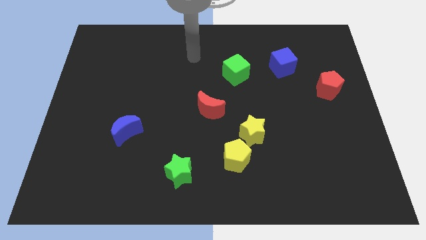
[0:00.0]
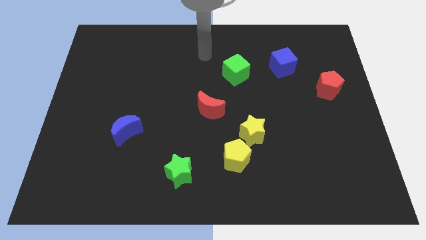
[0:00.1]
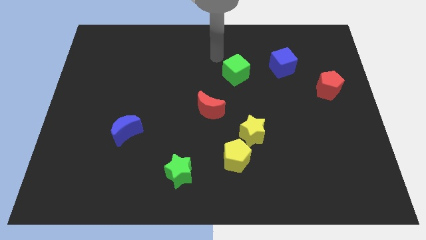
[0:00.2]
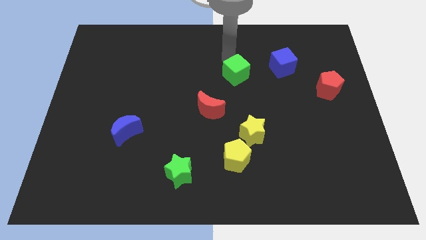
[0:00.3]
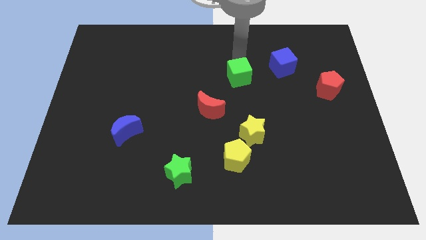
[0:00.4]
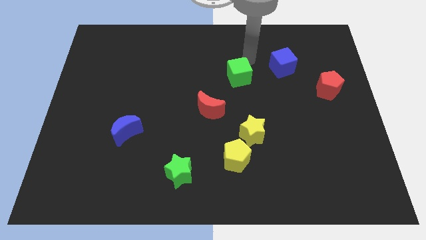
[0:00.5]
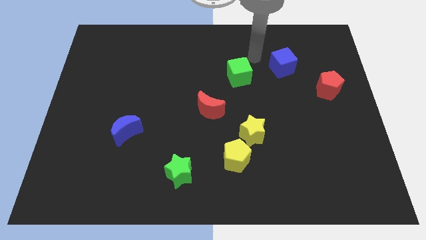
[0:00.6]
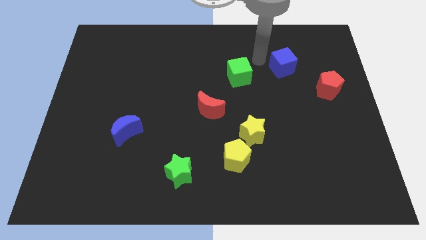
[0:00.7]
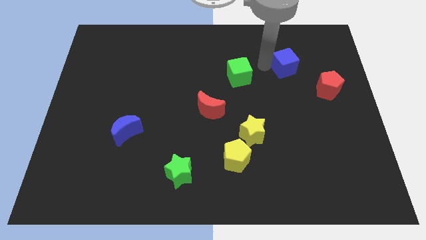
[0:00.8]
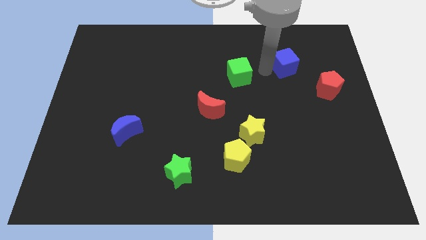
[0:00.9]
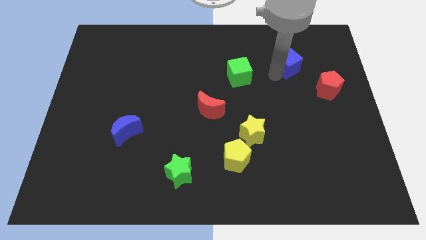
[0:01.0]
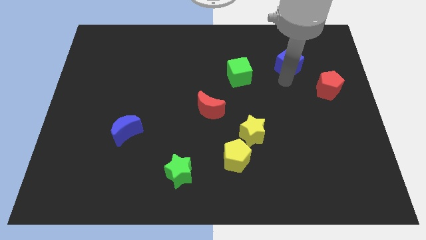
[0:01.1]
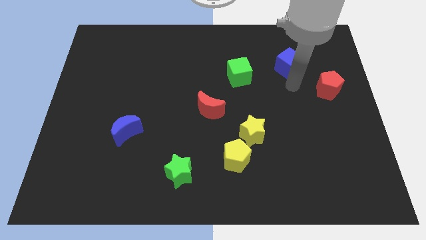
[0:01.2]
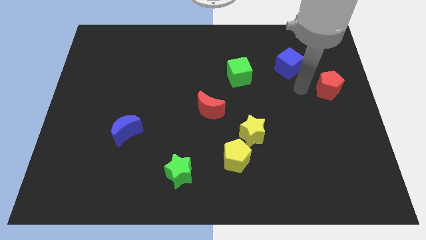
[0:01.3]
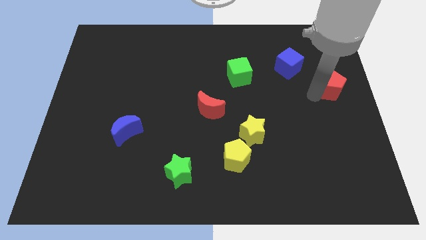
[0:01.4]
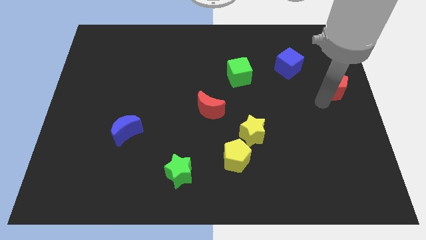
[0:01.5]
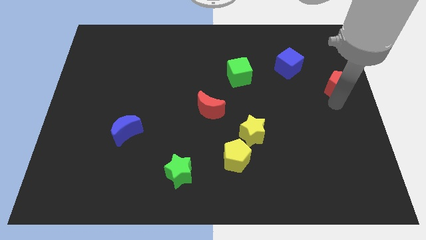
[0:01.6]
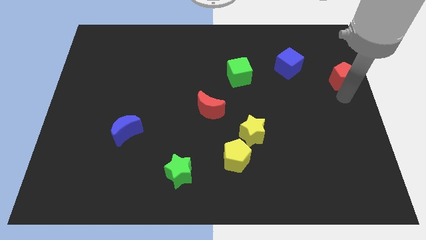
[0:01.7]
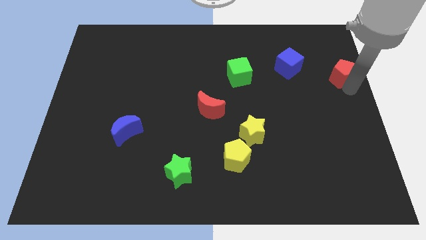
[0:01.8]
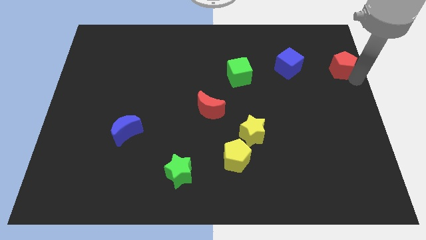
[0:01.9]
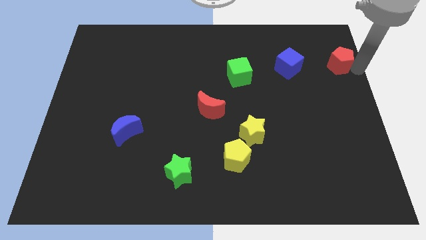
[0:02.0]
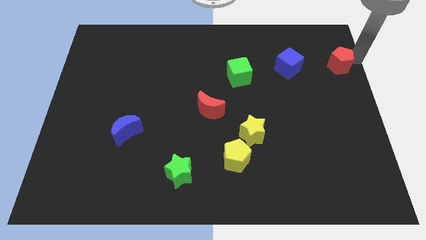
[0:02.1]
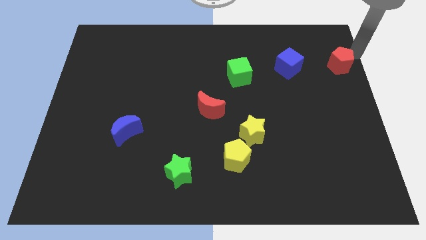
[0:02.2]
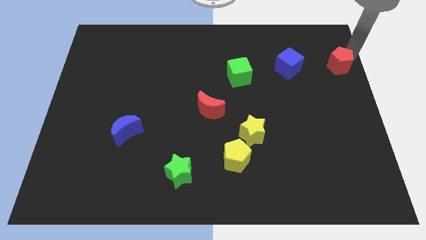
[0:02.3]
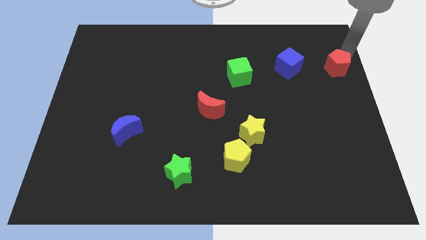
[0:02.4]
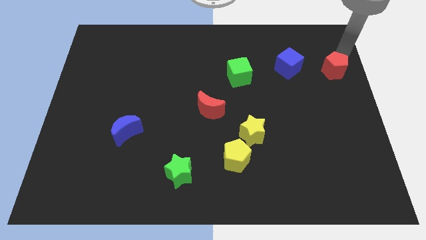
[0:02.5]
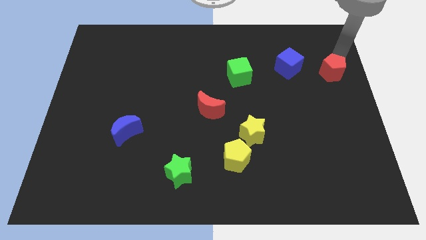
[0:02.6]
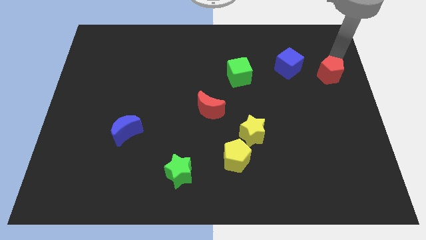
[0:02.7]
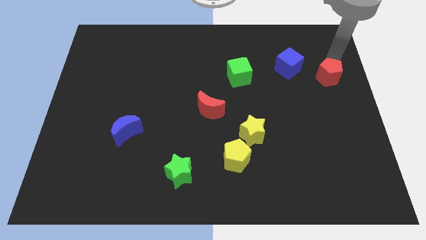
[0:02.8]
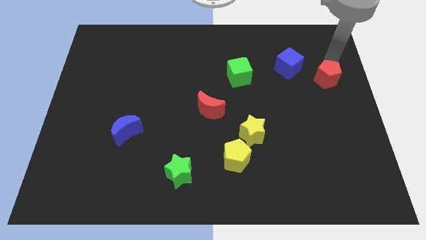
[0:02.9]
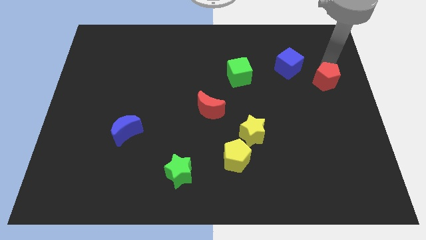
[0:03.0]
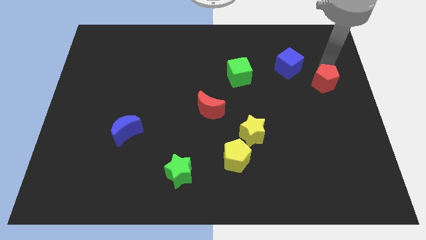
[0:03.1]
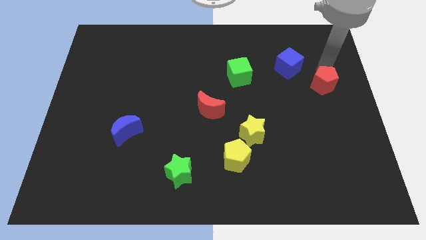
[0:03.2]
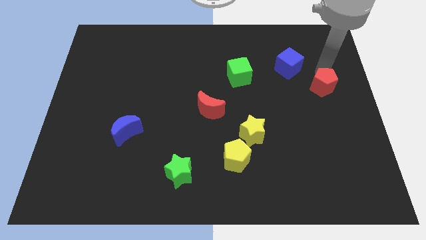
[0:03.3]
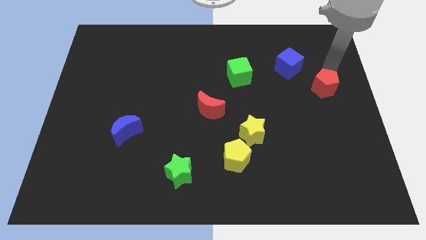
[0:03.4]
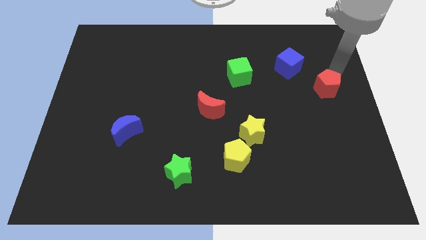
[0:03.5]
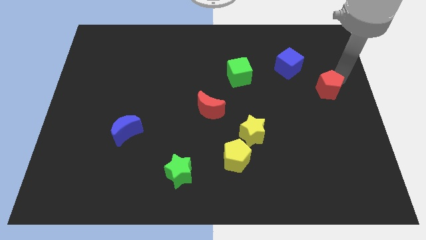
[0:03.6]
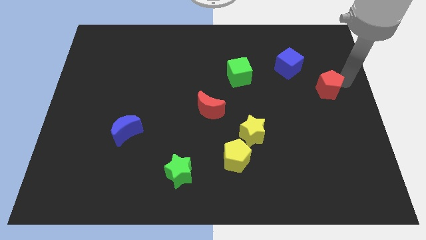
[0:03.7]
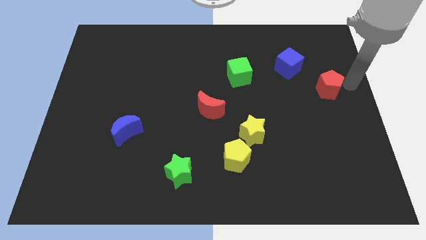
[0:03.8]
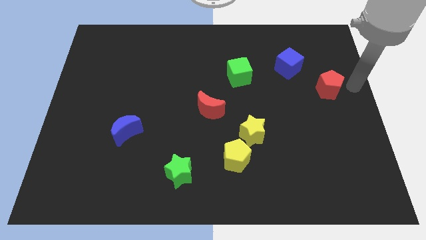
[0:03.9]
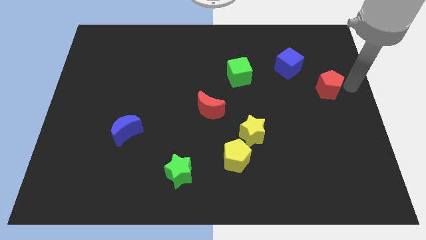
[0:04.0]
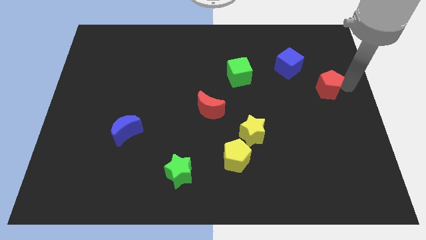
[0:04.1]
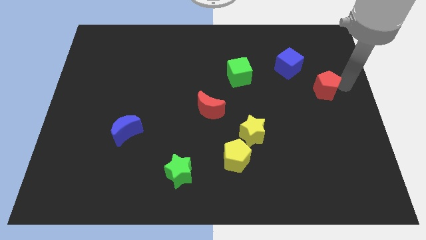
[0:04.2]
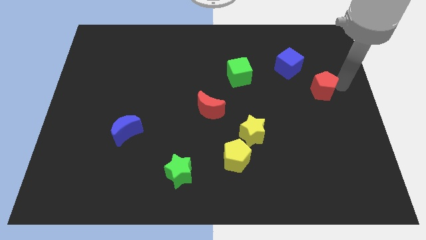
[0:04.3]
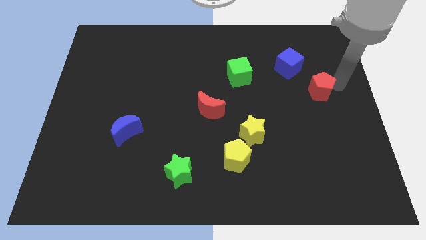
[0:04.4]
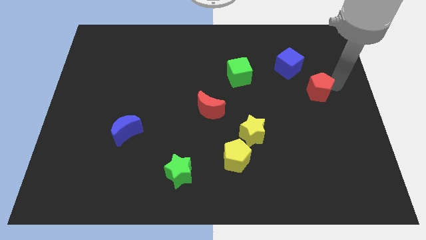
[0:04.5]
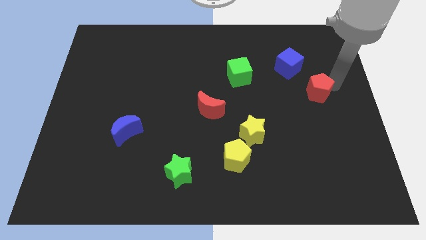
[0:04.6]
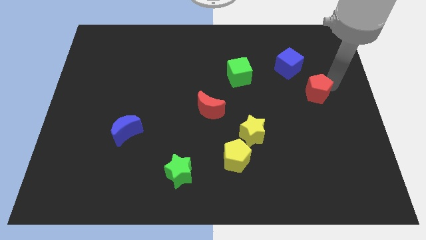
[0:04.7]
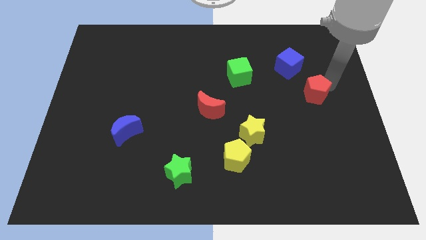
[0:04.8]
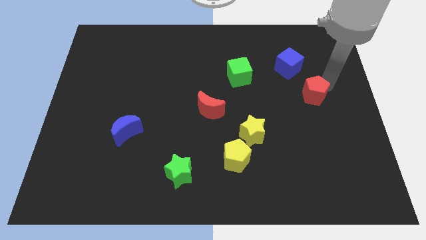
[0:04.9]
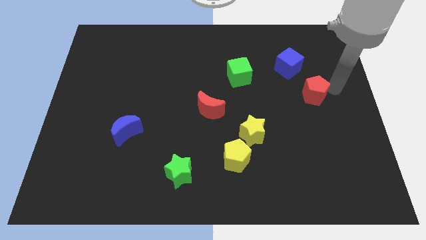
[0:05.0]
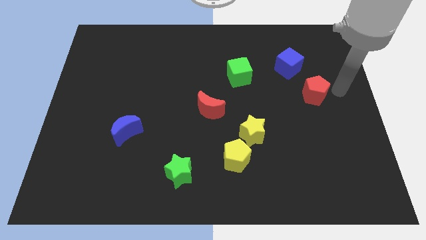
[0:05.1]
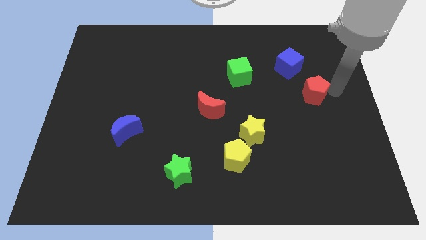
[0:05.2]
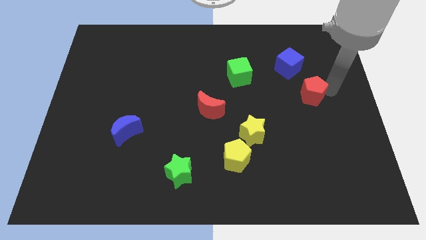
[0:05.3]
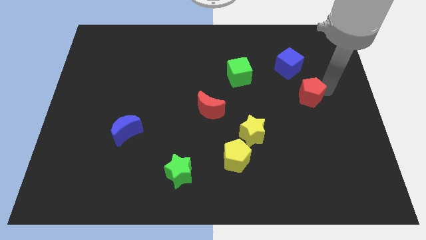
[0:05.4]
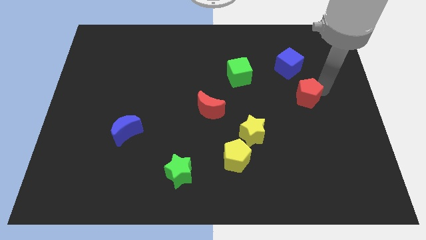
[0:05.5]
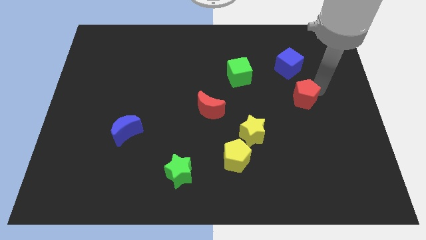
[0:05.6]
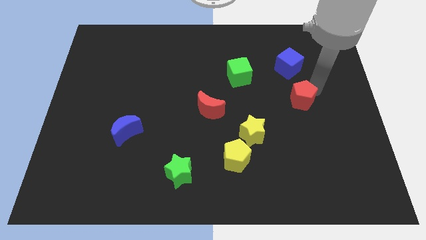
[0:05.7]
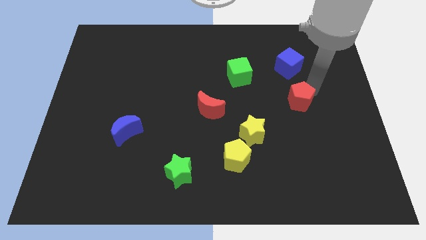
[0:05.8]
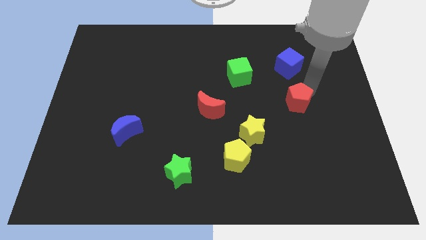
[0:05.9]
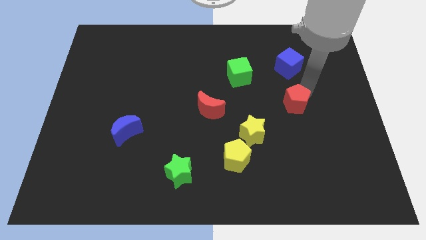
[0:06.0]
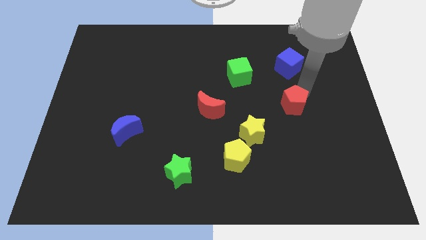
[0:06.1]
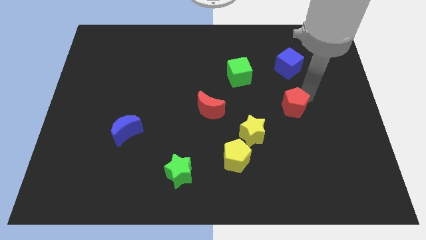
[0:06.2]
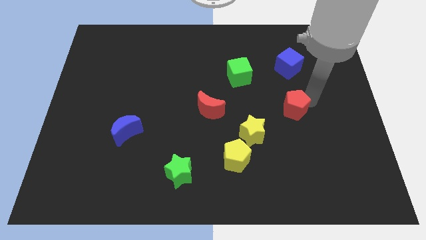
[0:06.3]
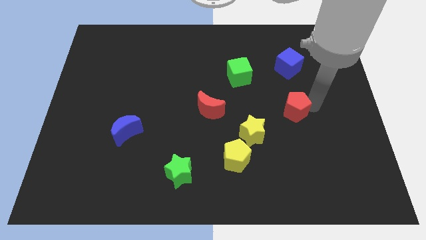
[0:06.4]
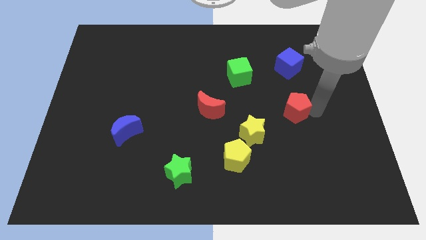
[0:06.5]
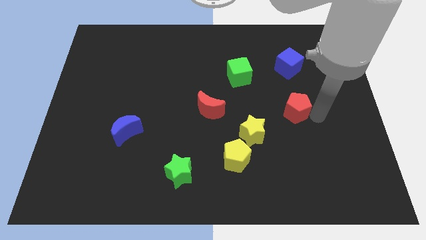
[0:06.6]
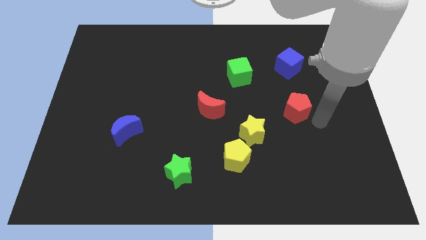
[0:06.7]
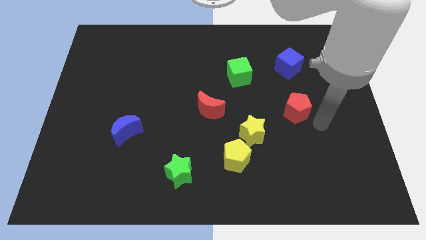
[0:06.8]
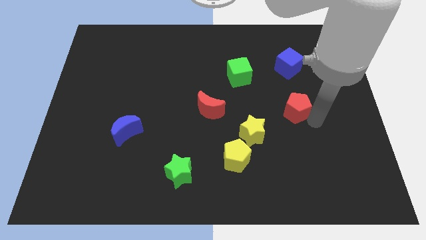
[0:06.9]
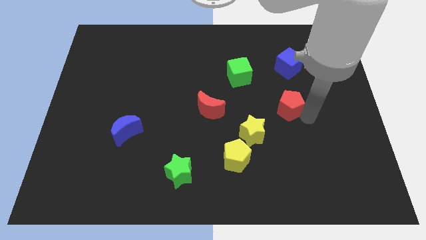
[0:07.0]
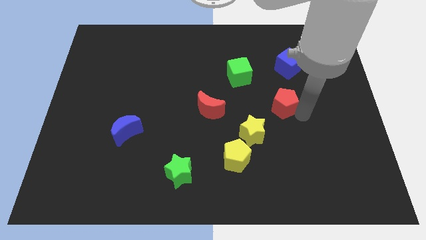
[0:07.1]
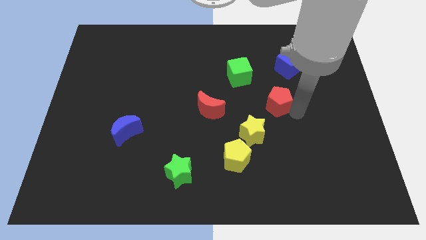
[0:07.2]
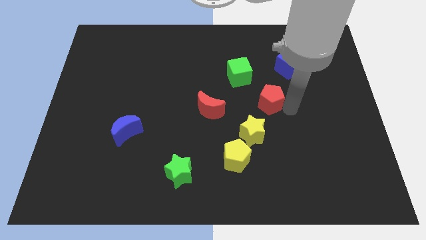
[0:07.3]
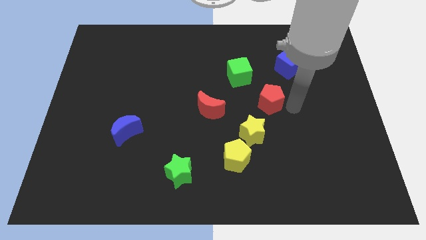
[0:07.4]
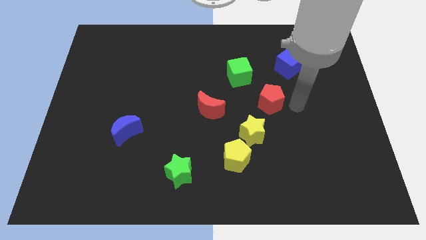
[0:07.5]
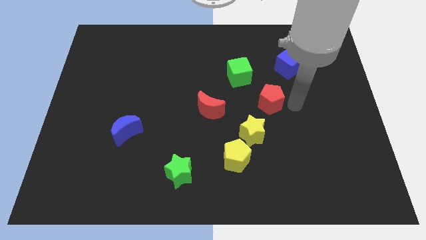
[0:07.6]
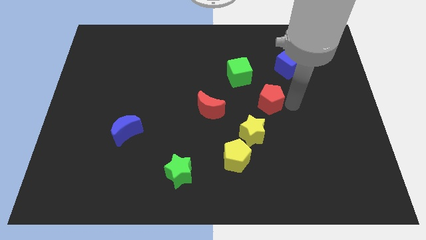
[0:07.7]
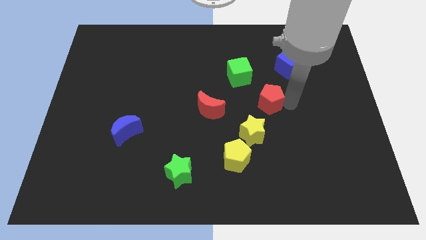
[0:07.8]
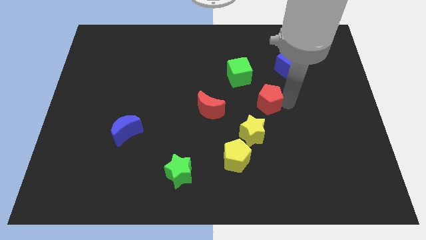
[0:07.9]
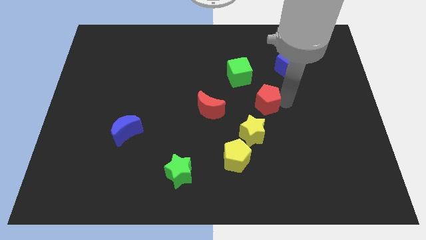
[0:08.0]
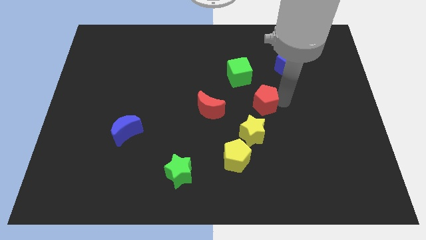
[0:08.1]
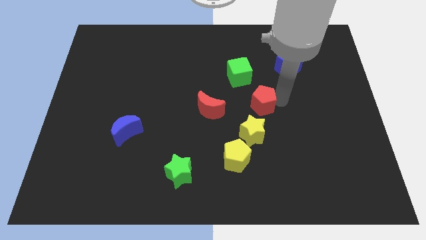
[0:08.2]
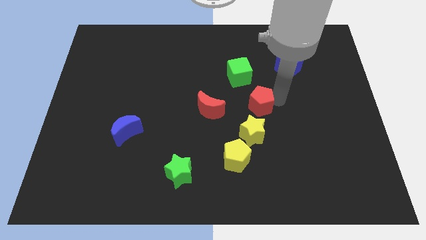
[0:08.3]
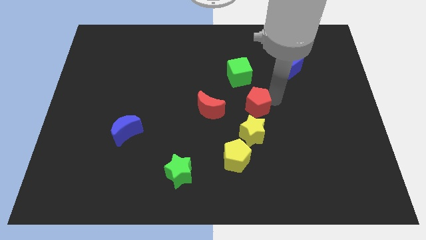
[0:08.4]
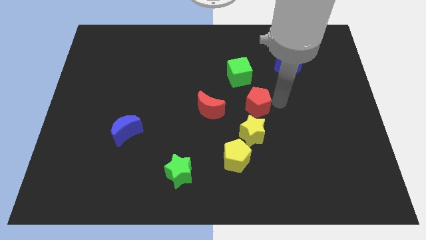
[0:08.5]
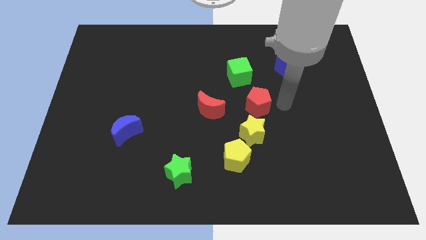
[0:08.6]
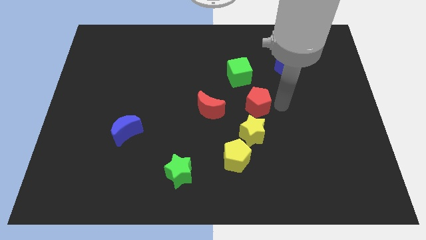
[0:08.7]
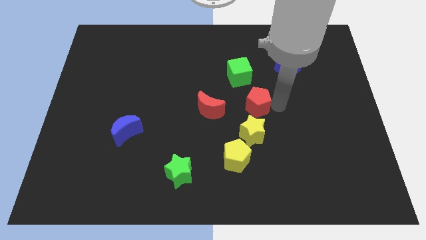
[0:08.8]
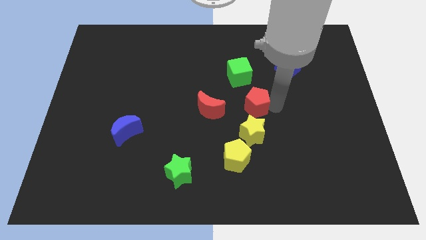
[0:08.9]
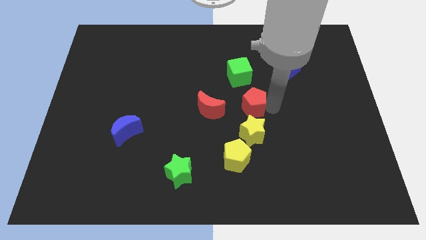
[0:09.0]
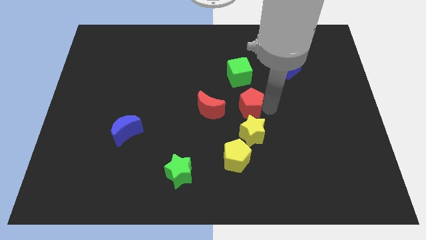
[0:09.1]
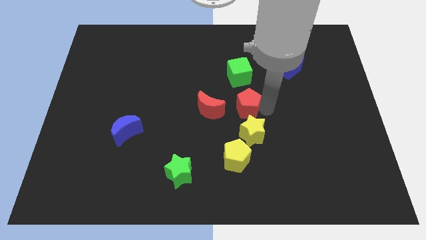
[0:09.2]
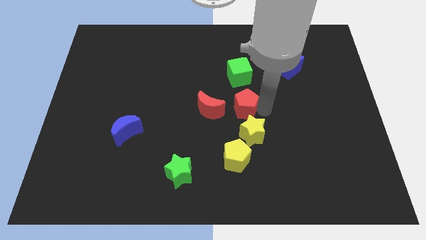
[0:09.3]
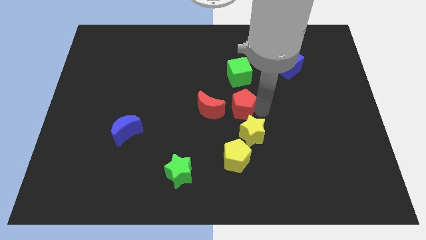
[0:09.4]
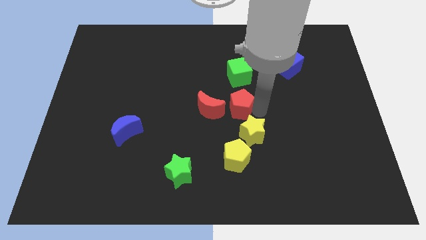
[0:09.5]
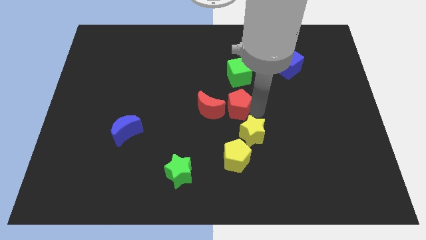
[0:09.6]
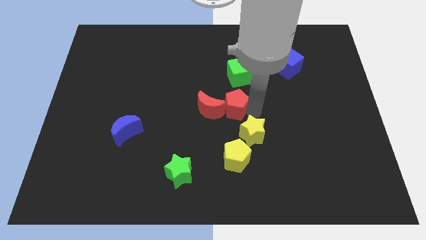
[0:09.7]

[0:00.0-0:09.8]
move the red pentagon close to the red moon
